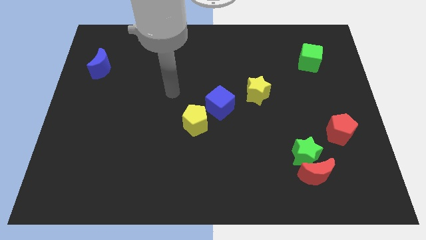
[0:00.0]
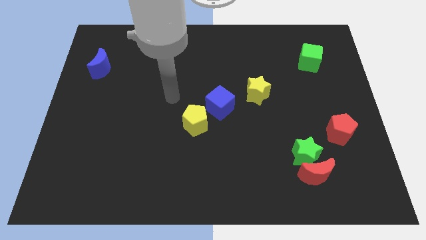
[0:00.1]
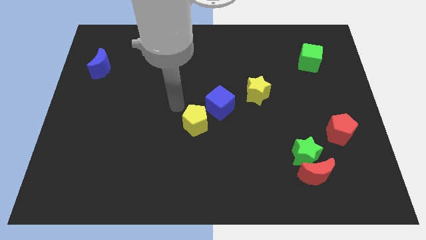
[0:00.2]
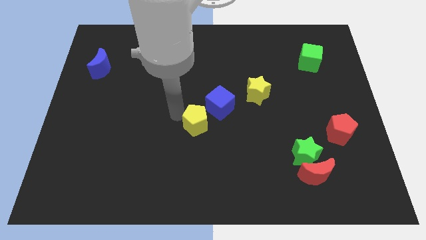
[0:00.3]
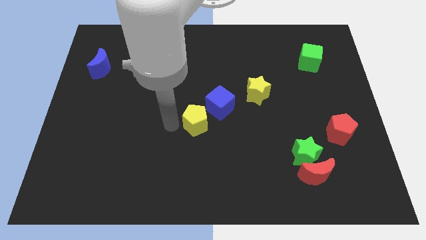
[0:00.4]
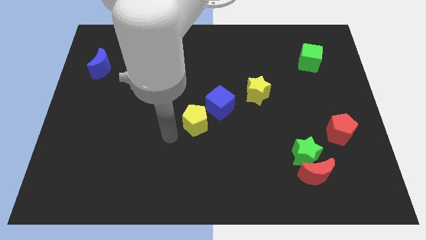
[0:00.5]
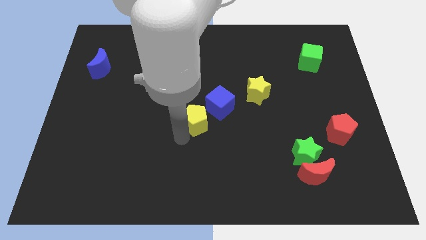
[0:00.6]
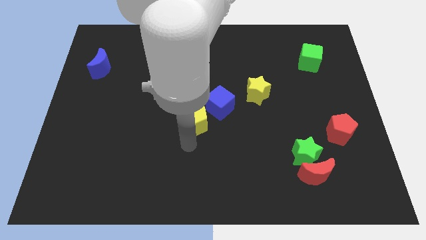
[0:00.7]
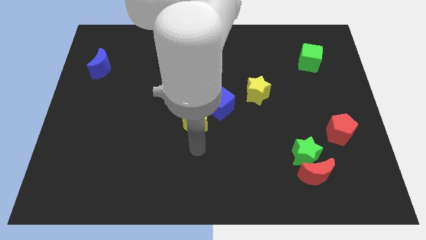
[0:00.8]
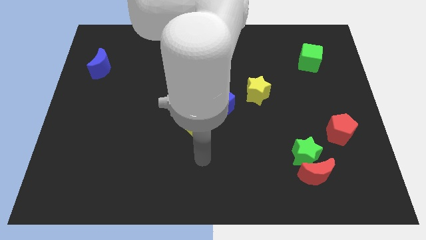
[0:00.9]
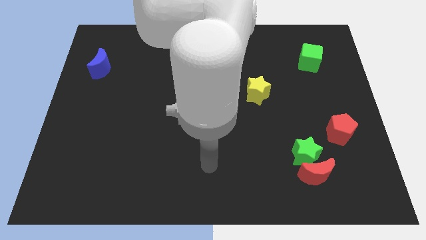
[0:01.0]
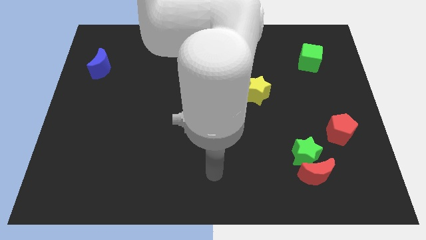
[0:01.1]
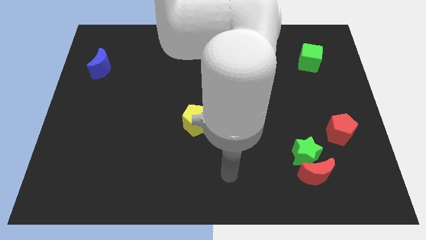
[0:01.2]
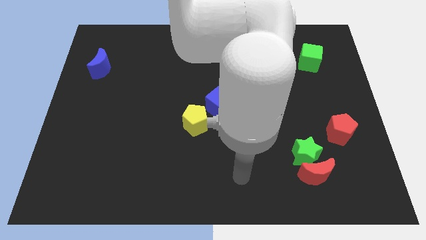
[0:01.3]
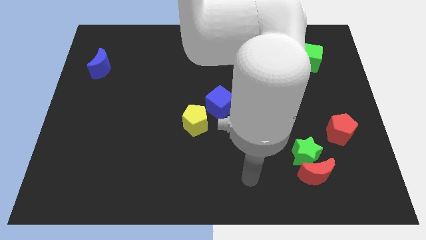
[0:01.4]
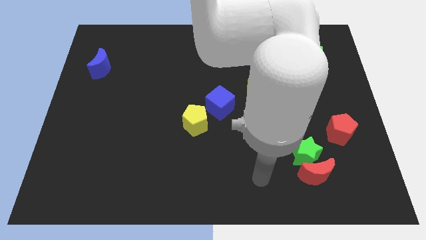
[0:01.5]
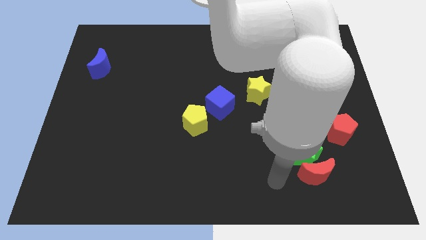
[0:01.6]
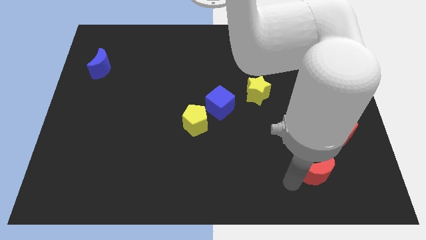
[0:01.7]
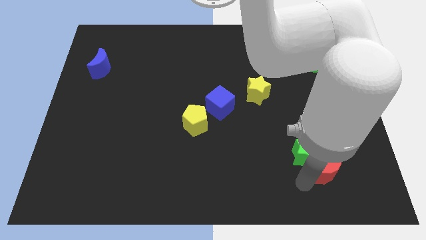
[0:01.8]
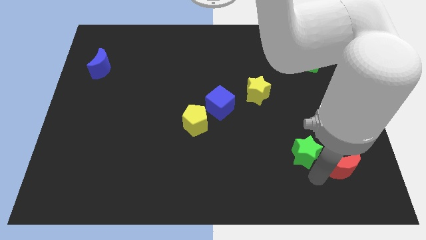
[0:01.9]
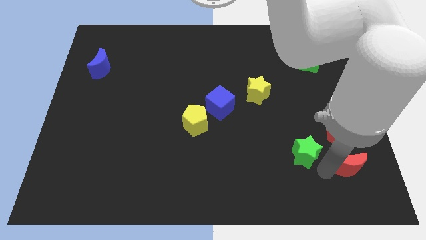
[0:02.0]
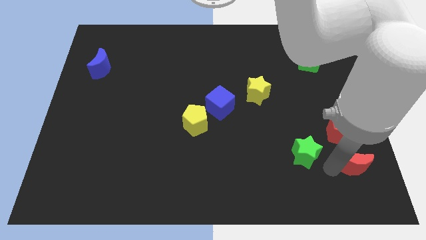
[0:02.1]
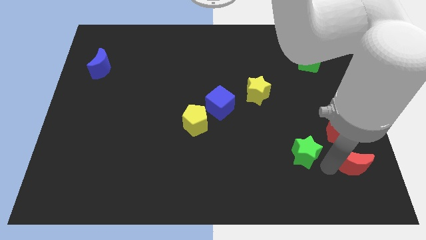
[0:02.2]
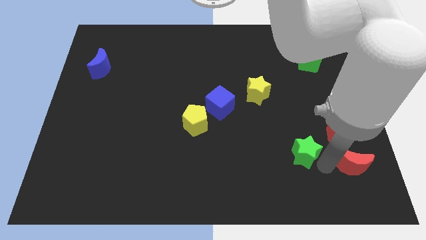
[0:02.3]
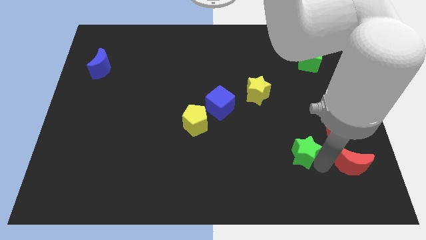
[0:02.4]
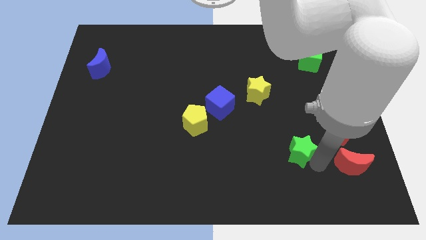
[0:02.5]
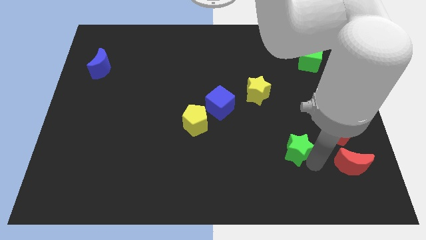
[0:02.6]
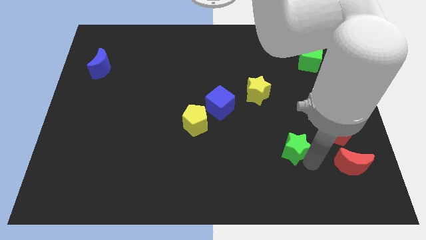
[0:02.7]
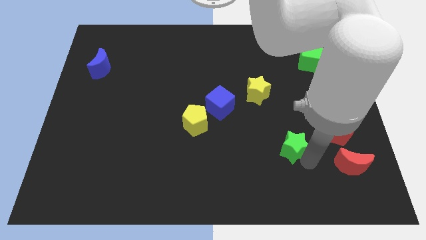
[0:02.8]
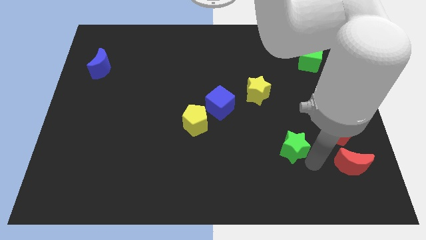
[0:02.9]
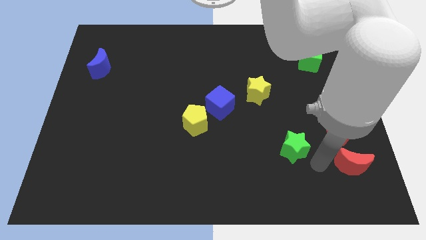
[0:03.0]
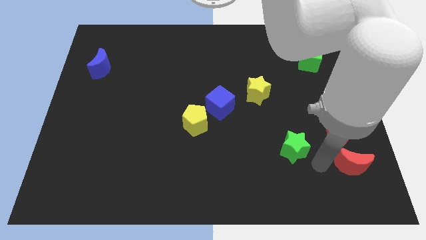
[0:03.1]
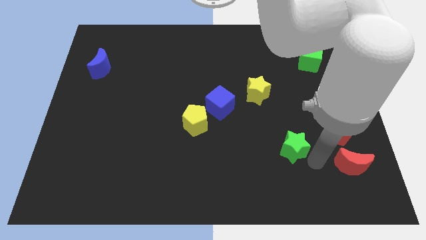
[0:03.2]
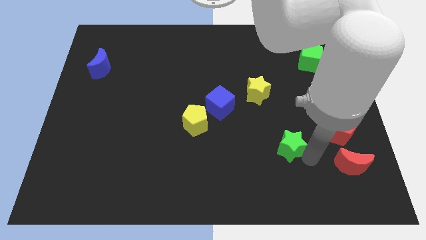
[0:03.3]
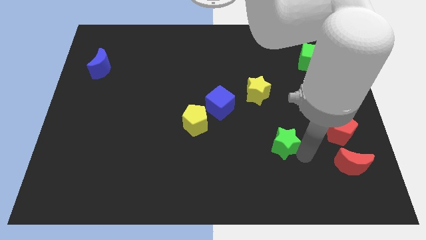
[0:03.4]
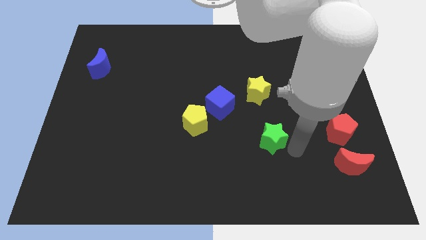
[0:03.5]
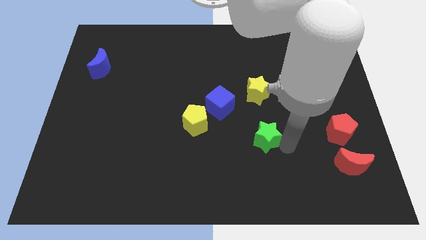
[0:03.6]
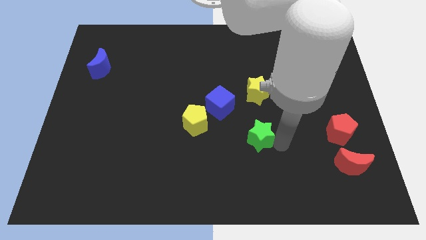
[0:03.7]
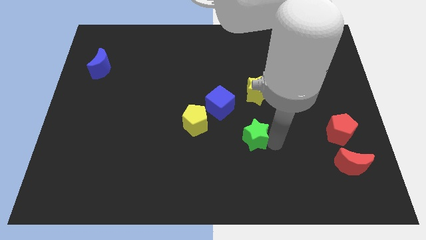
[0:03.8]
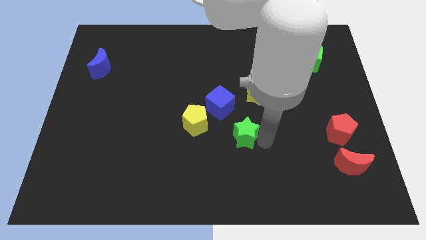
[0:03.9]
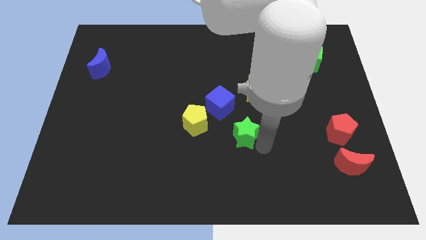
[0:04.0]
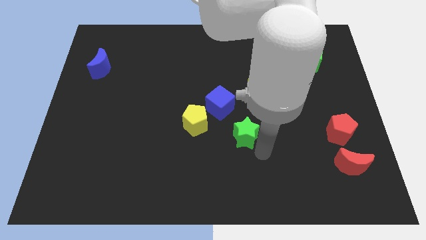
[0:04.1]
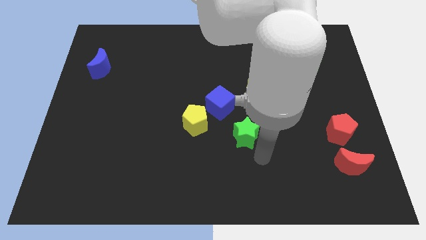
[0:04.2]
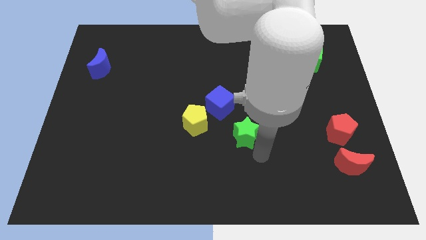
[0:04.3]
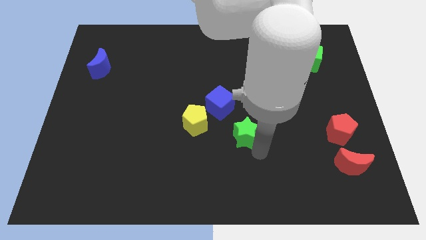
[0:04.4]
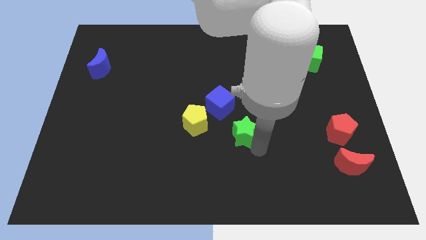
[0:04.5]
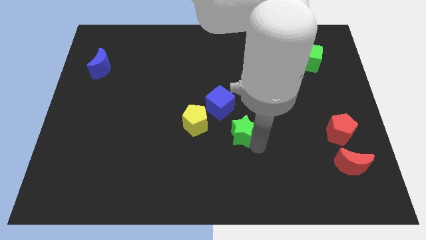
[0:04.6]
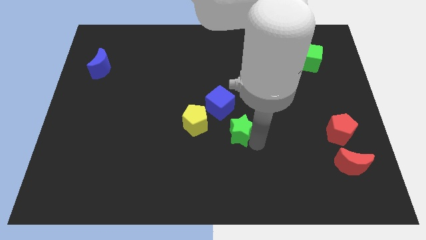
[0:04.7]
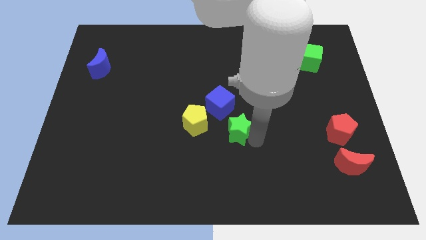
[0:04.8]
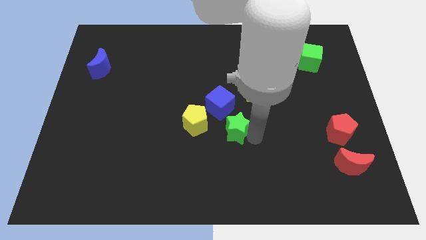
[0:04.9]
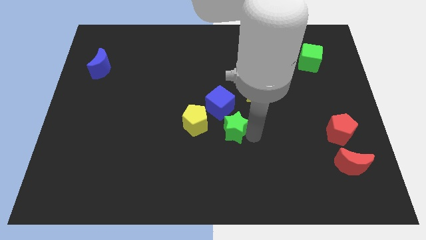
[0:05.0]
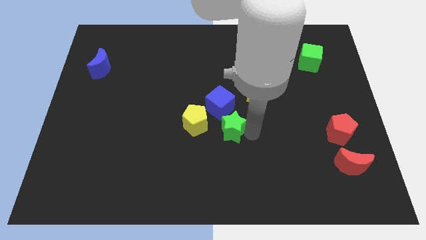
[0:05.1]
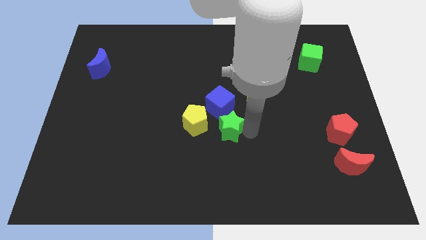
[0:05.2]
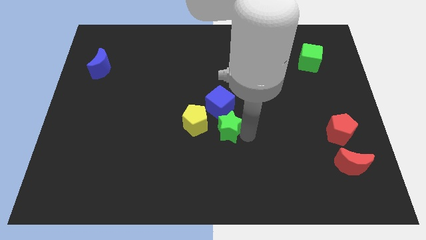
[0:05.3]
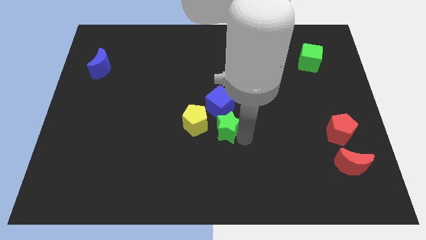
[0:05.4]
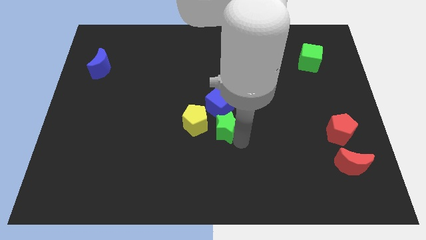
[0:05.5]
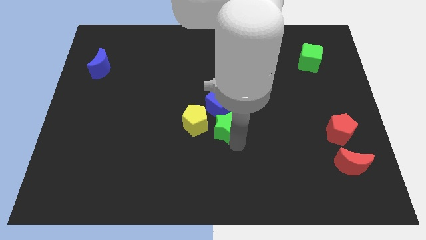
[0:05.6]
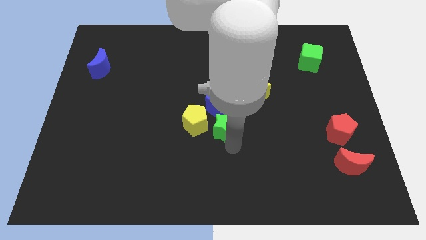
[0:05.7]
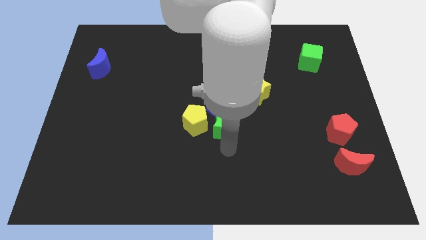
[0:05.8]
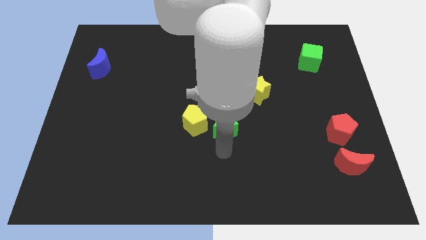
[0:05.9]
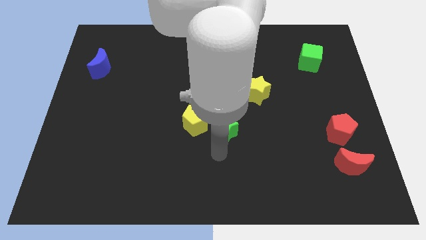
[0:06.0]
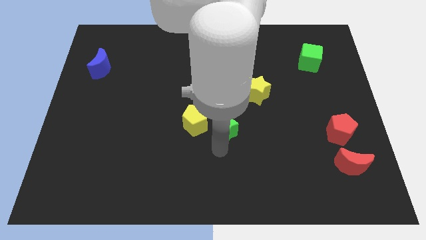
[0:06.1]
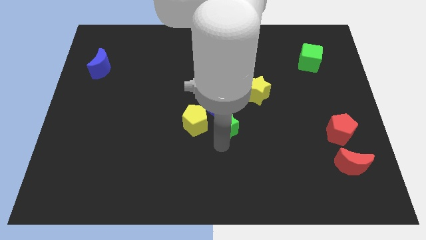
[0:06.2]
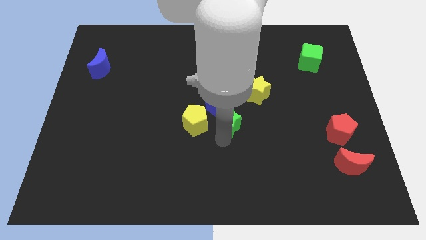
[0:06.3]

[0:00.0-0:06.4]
push the green star close to the blue cube

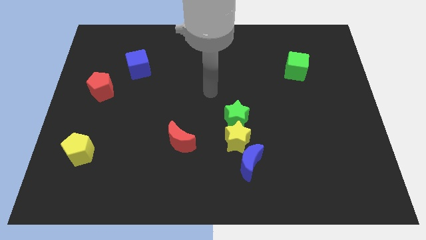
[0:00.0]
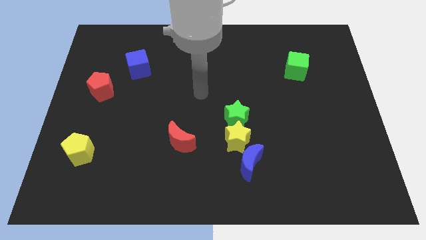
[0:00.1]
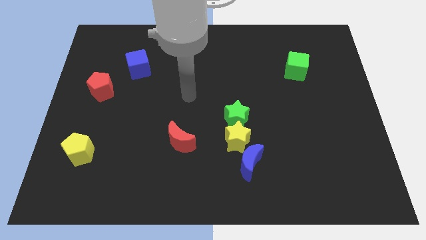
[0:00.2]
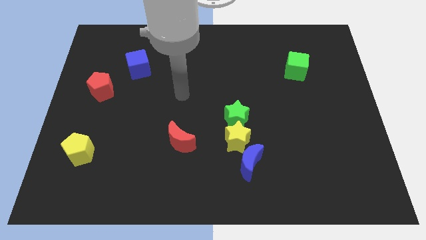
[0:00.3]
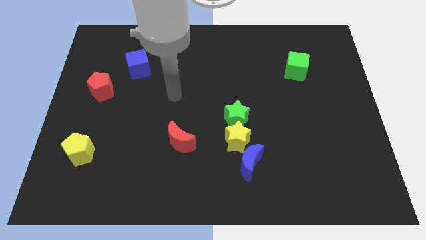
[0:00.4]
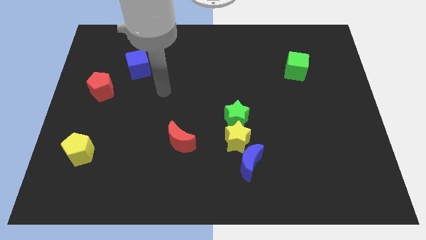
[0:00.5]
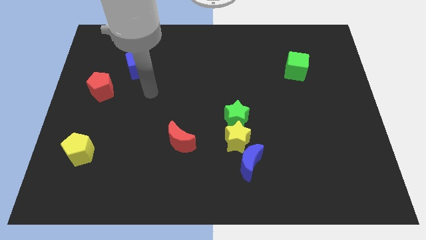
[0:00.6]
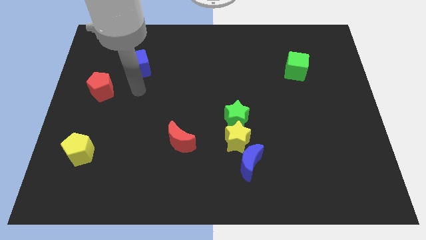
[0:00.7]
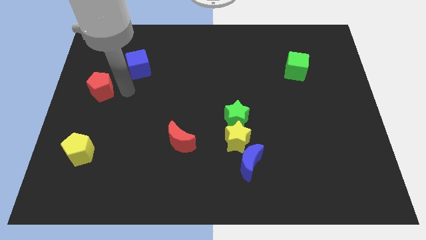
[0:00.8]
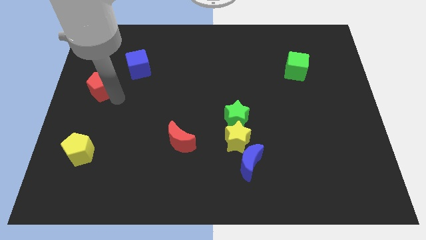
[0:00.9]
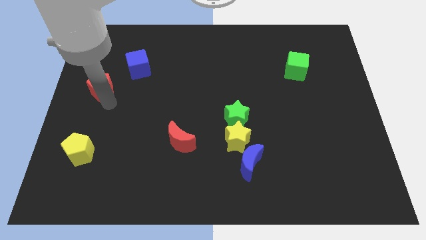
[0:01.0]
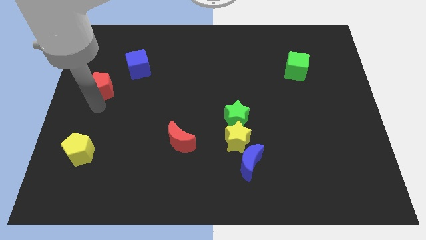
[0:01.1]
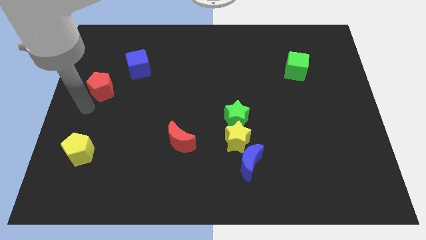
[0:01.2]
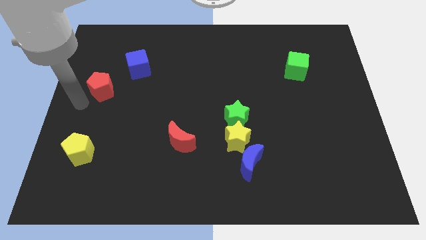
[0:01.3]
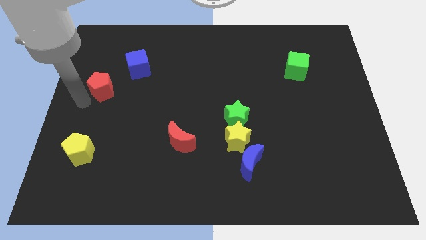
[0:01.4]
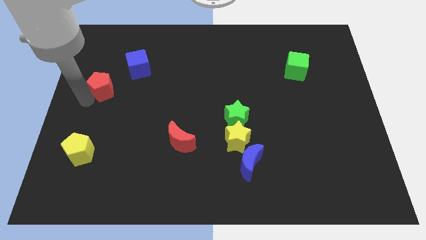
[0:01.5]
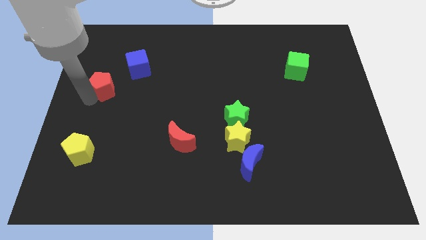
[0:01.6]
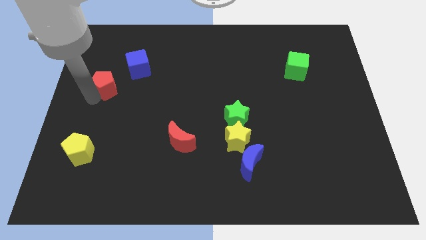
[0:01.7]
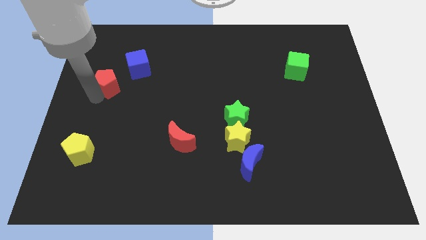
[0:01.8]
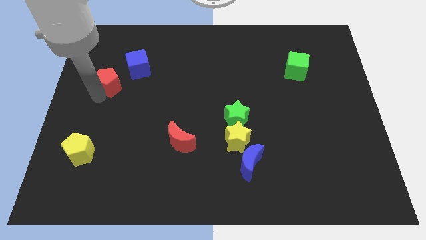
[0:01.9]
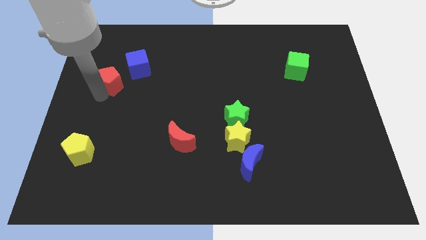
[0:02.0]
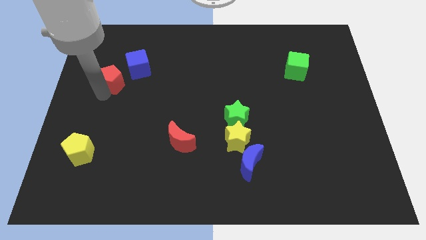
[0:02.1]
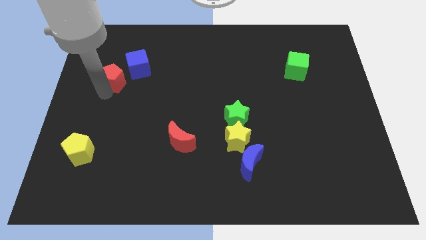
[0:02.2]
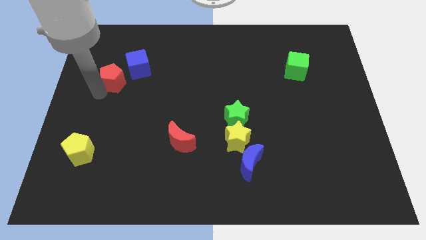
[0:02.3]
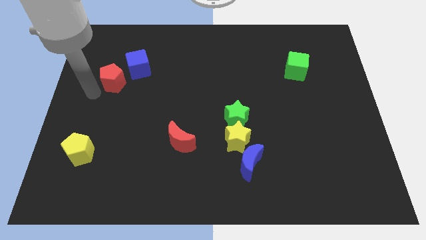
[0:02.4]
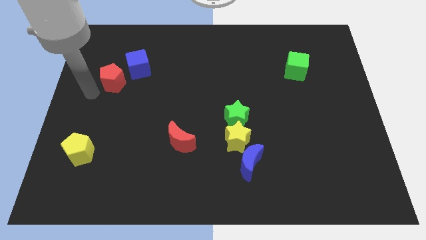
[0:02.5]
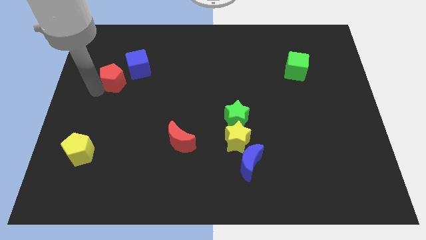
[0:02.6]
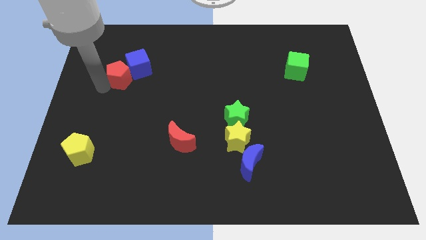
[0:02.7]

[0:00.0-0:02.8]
put the red pentagon next to the blue cube
